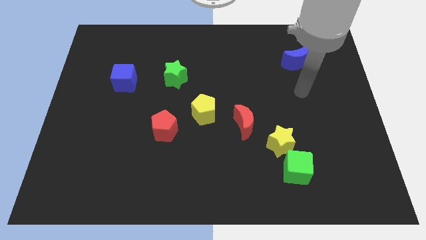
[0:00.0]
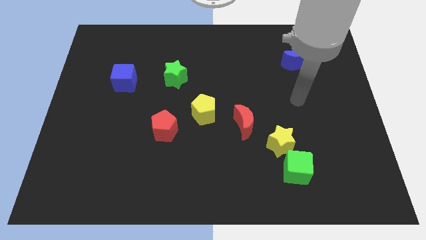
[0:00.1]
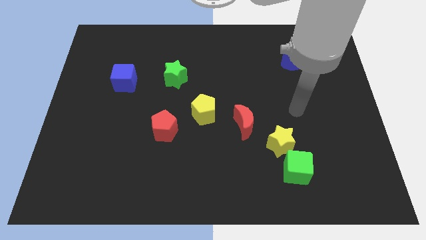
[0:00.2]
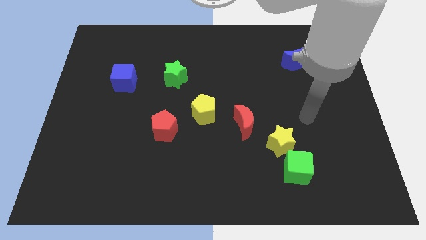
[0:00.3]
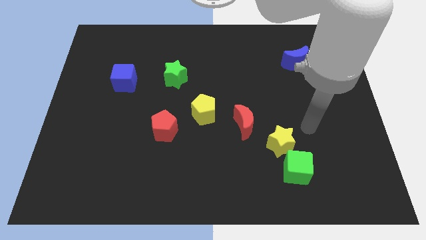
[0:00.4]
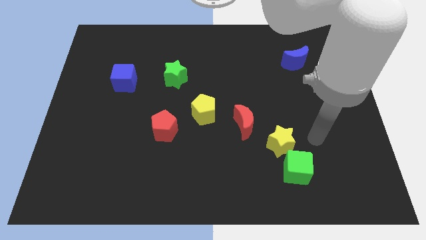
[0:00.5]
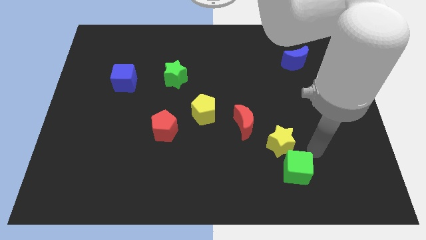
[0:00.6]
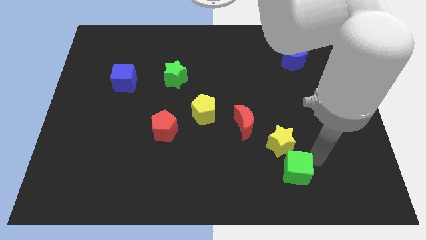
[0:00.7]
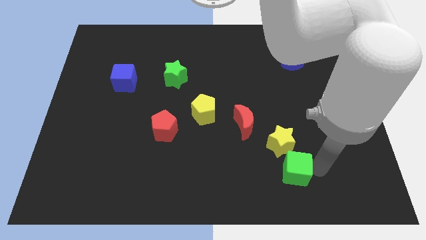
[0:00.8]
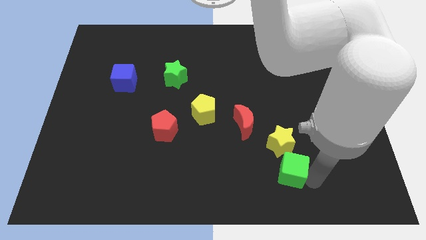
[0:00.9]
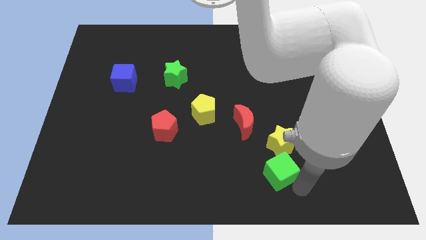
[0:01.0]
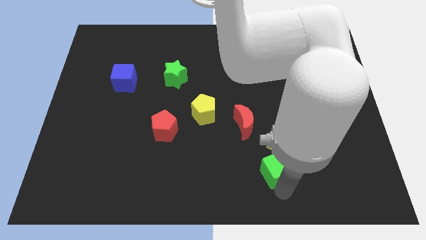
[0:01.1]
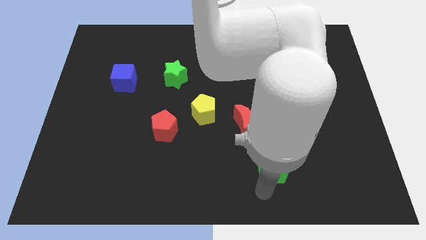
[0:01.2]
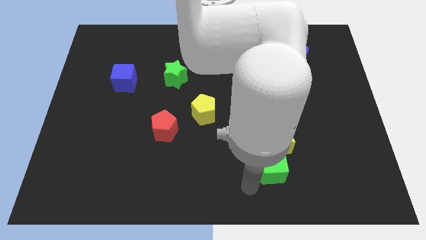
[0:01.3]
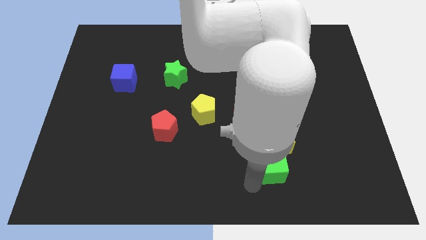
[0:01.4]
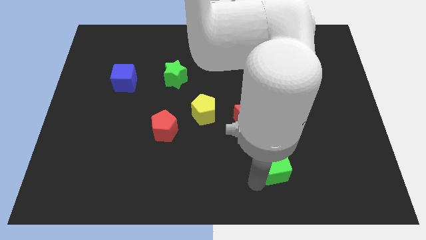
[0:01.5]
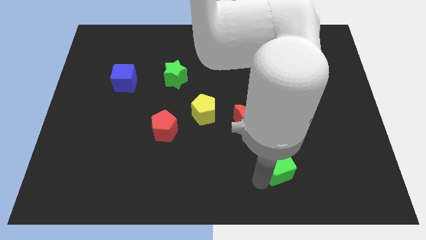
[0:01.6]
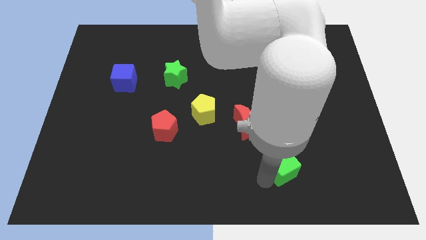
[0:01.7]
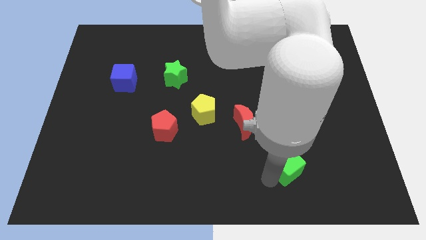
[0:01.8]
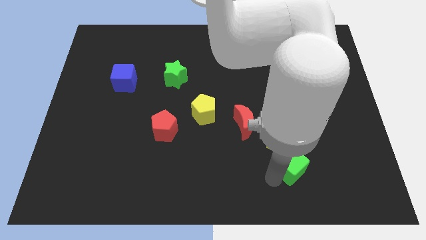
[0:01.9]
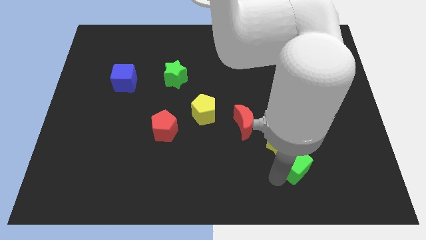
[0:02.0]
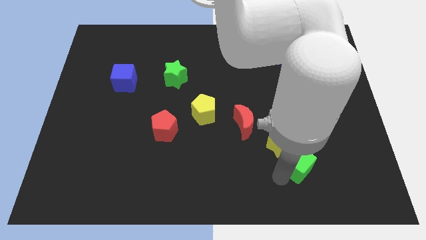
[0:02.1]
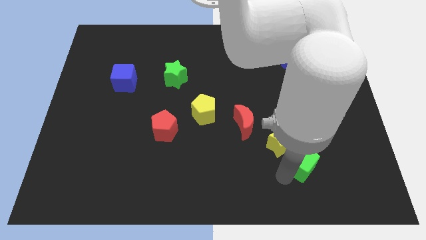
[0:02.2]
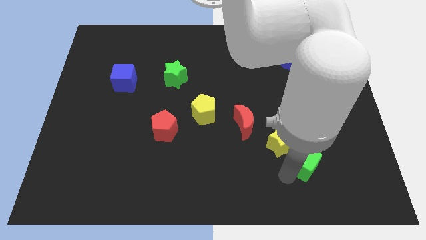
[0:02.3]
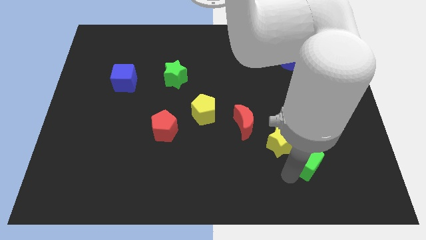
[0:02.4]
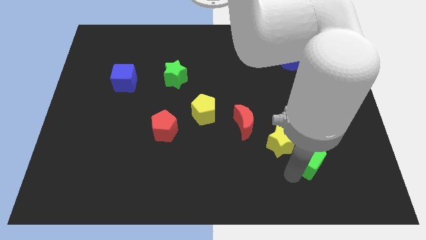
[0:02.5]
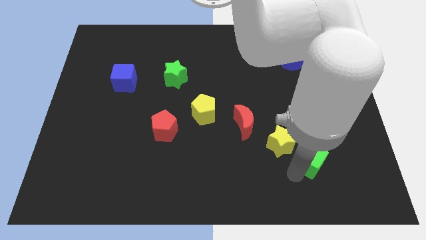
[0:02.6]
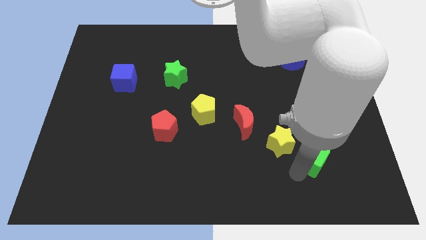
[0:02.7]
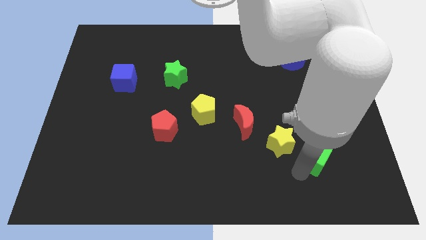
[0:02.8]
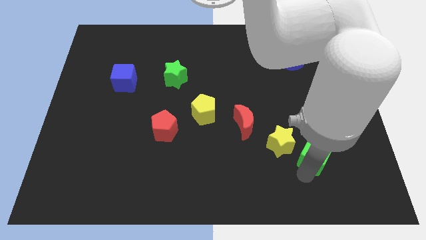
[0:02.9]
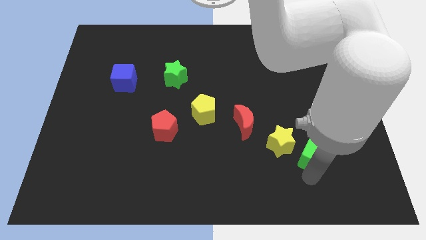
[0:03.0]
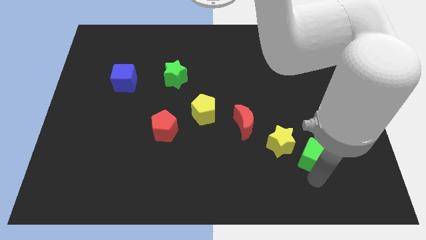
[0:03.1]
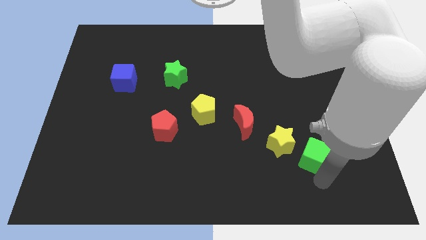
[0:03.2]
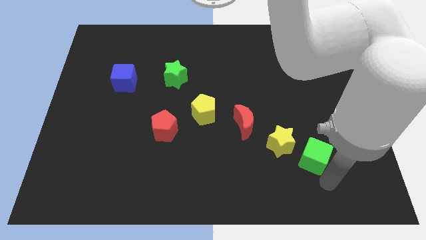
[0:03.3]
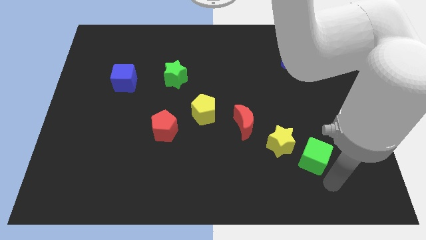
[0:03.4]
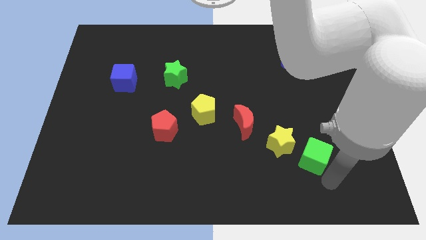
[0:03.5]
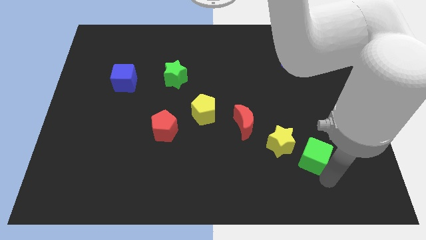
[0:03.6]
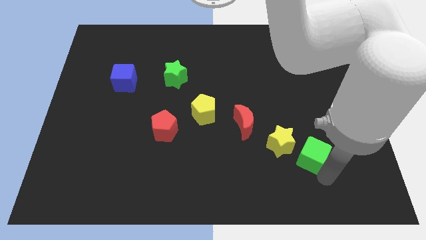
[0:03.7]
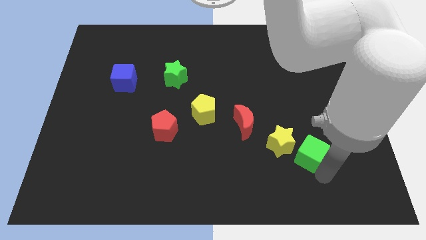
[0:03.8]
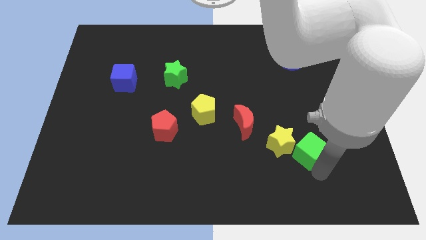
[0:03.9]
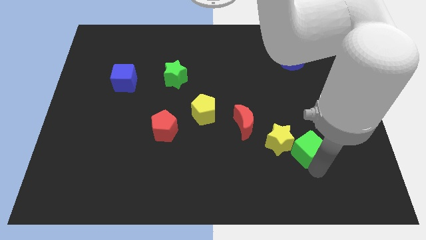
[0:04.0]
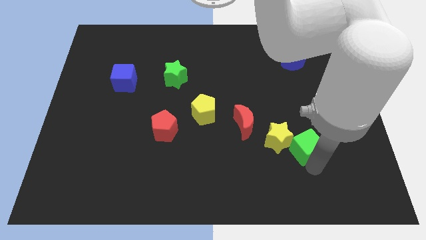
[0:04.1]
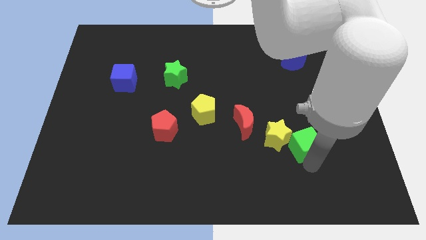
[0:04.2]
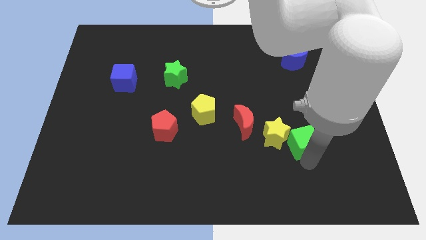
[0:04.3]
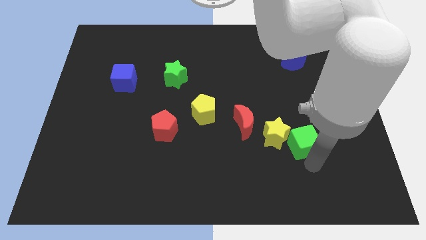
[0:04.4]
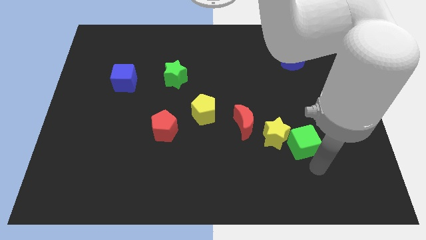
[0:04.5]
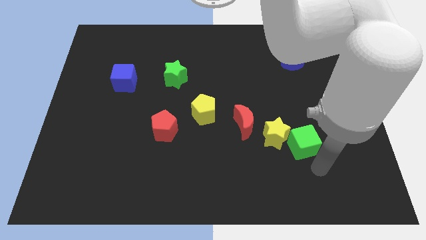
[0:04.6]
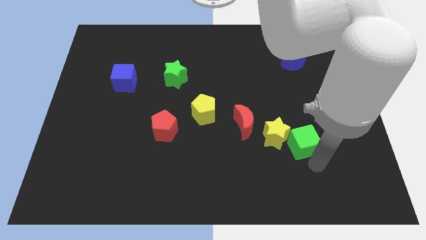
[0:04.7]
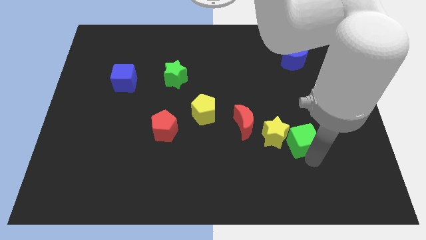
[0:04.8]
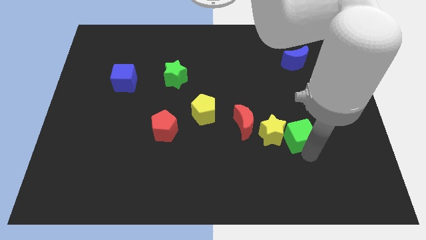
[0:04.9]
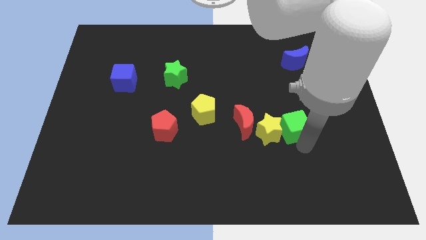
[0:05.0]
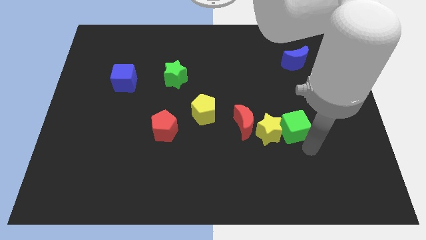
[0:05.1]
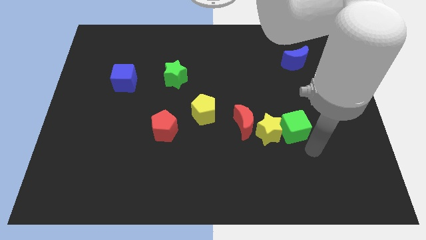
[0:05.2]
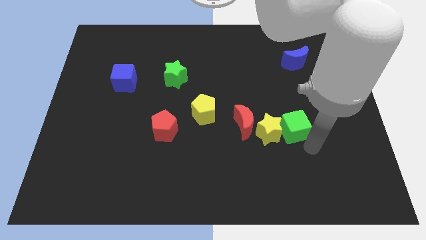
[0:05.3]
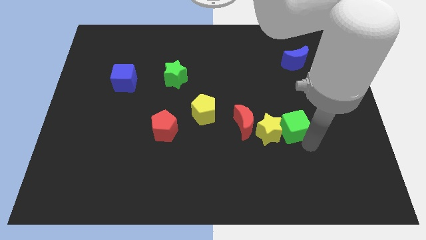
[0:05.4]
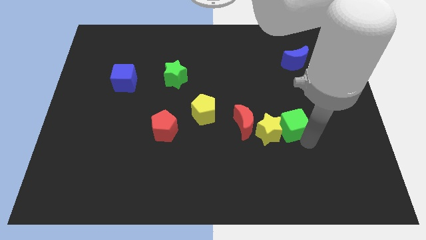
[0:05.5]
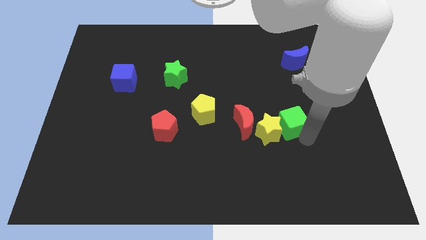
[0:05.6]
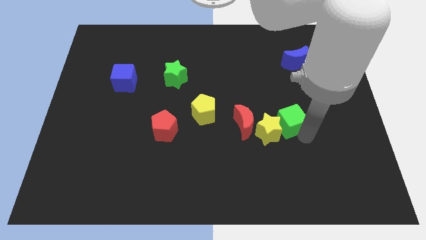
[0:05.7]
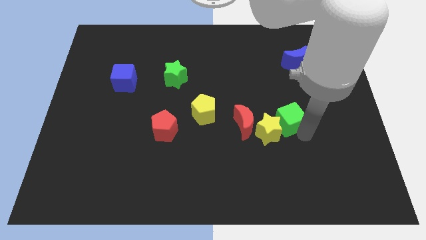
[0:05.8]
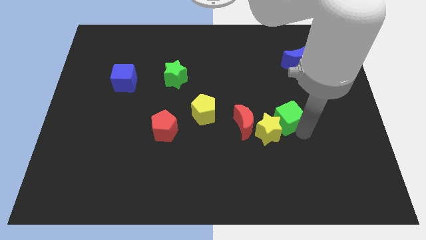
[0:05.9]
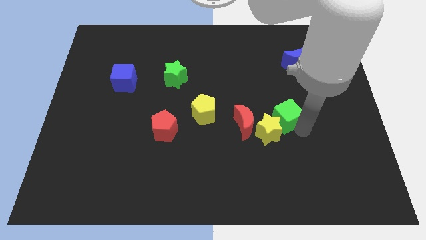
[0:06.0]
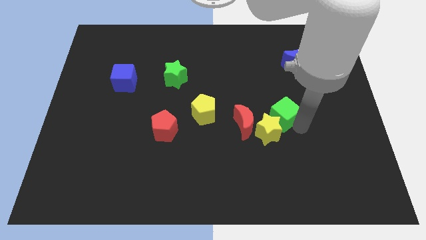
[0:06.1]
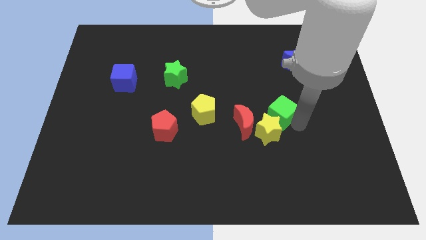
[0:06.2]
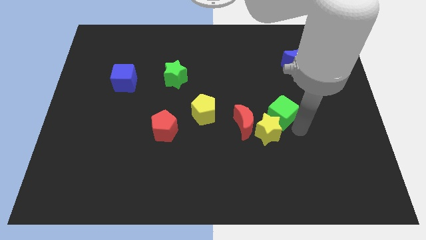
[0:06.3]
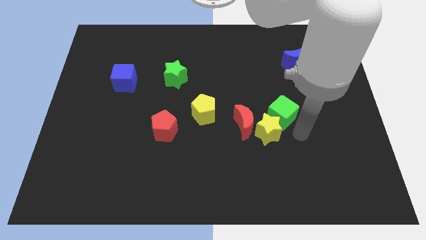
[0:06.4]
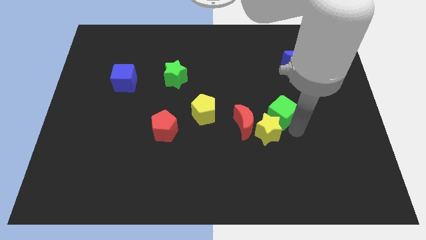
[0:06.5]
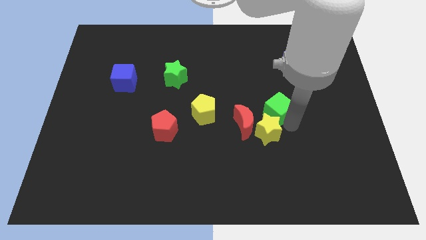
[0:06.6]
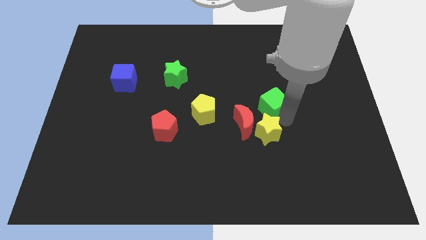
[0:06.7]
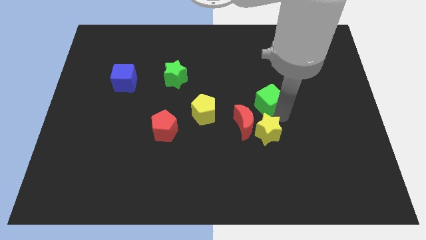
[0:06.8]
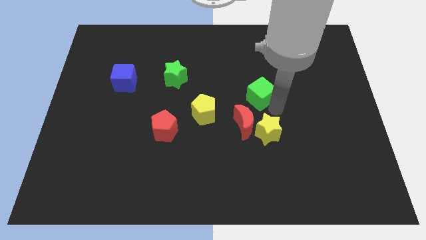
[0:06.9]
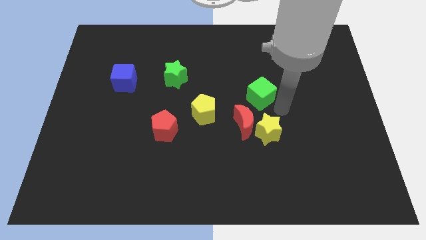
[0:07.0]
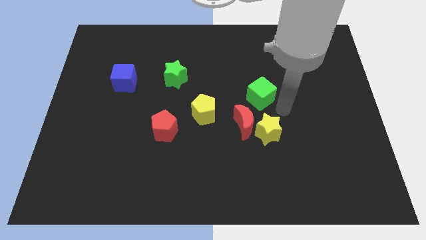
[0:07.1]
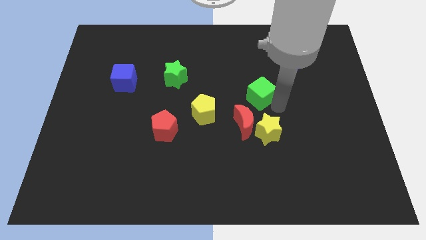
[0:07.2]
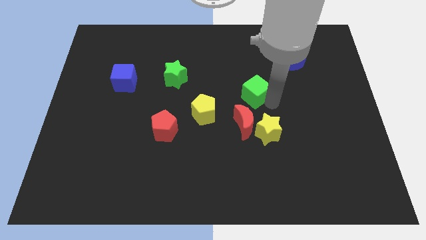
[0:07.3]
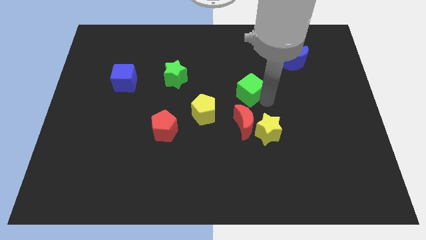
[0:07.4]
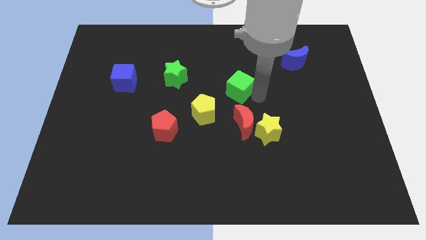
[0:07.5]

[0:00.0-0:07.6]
push the green cube upwards and to the left

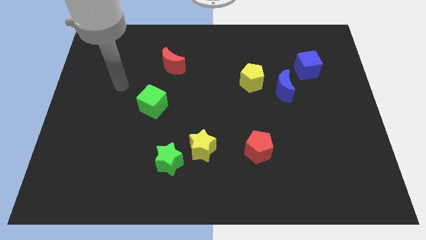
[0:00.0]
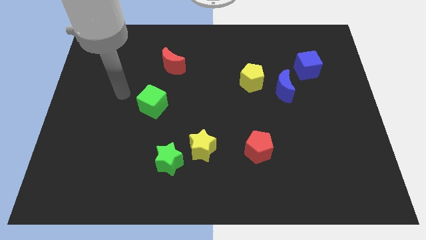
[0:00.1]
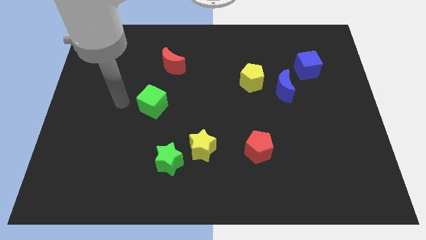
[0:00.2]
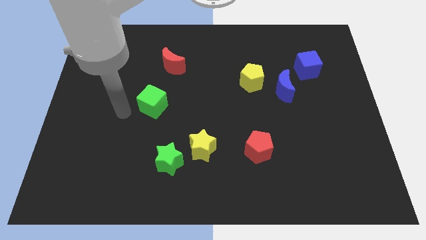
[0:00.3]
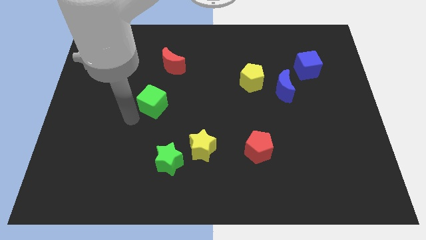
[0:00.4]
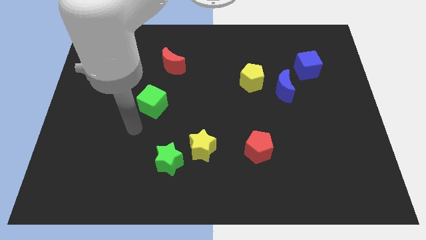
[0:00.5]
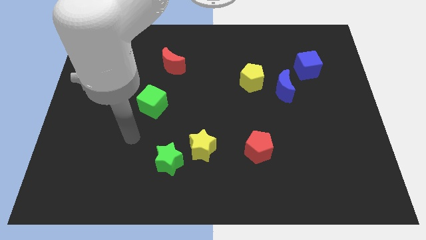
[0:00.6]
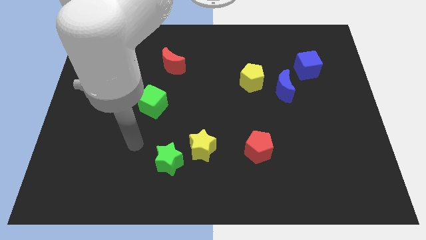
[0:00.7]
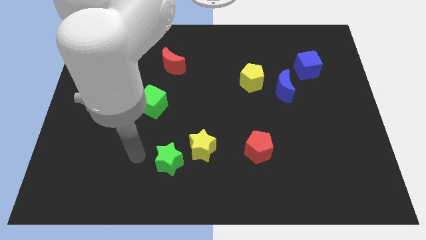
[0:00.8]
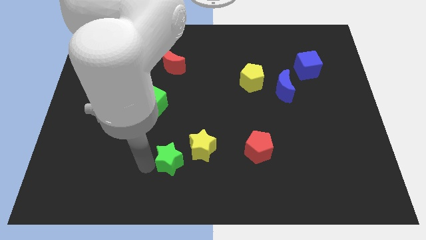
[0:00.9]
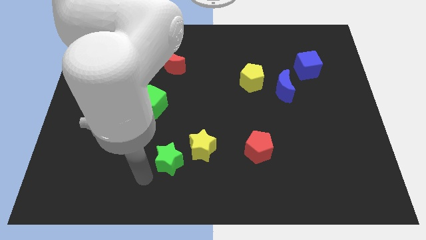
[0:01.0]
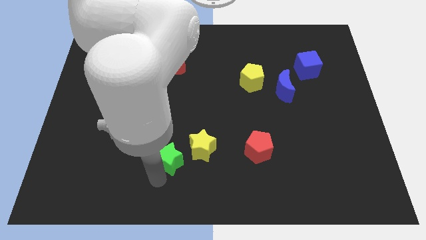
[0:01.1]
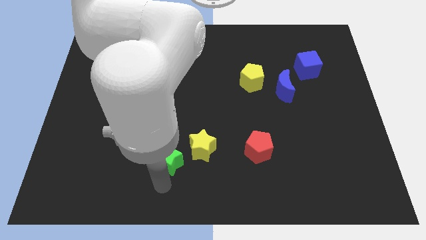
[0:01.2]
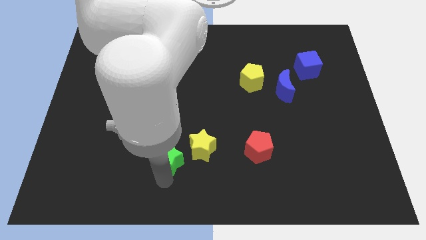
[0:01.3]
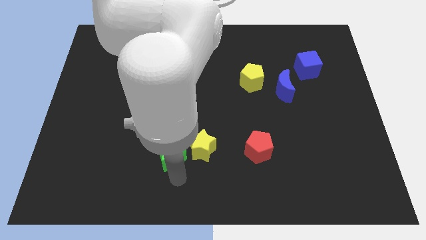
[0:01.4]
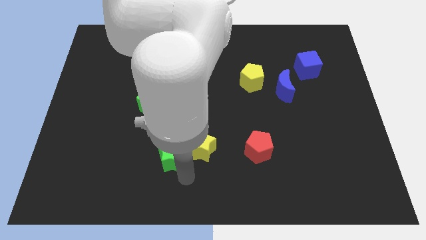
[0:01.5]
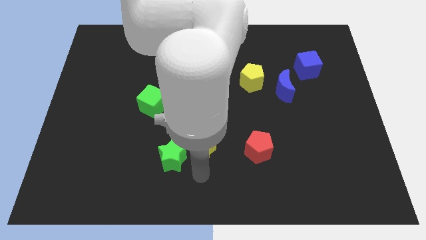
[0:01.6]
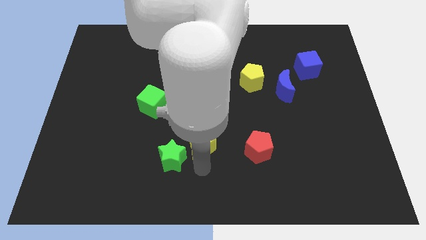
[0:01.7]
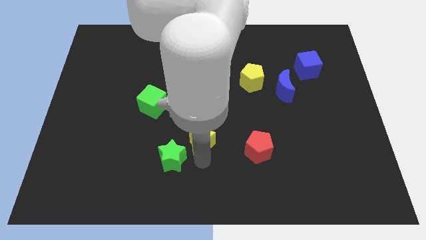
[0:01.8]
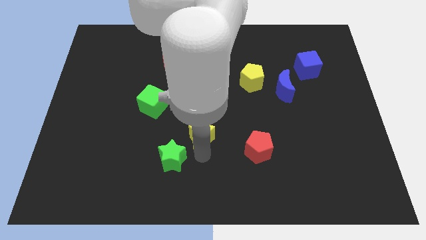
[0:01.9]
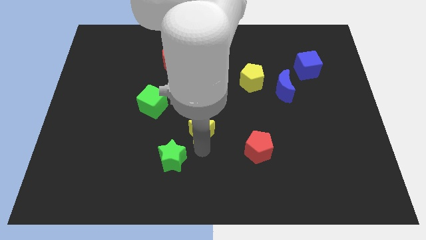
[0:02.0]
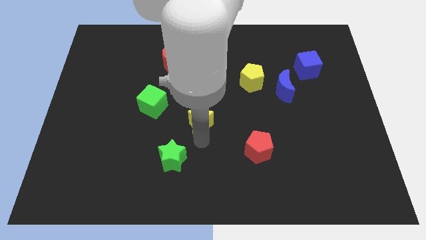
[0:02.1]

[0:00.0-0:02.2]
move the yellow star up somewhat
